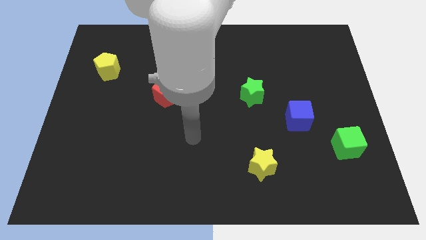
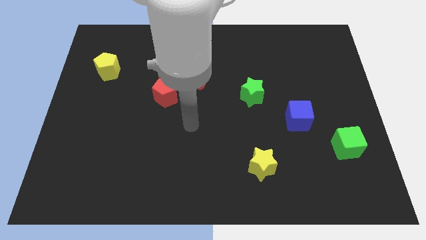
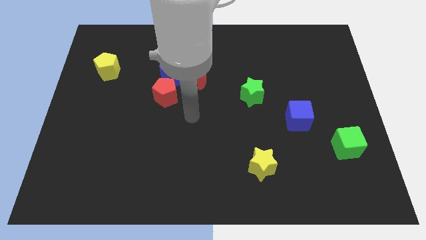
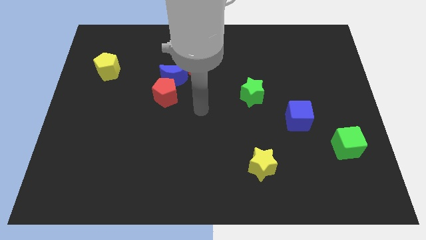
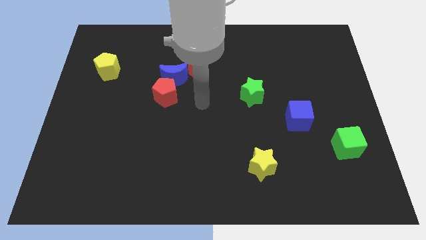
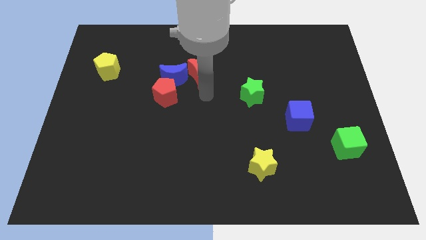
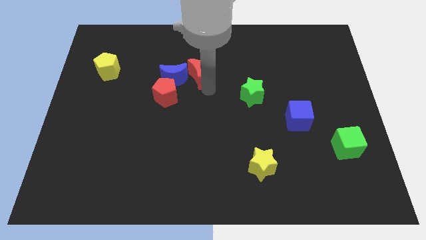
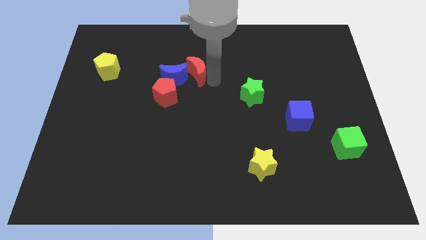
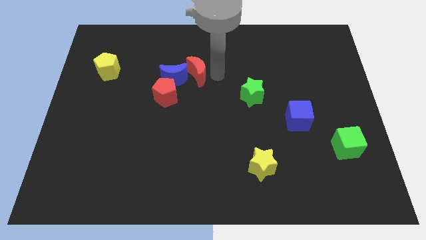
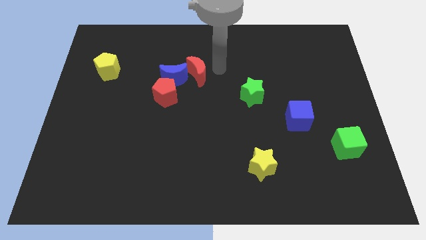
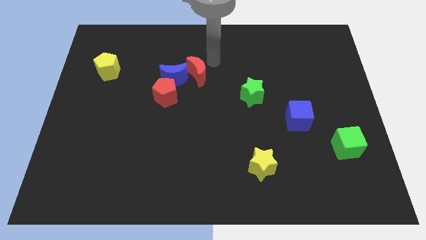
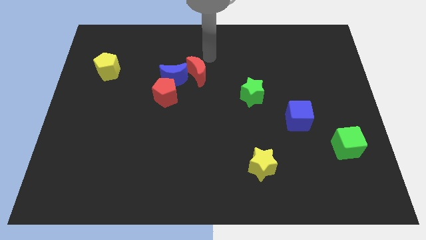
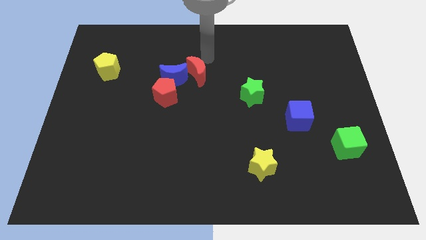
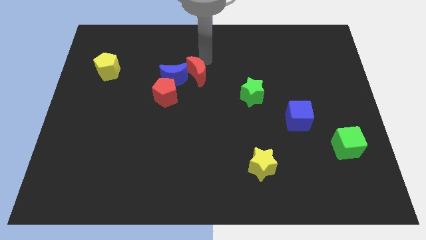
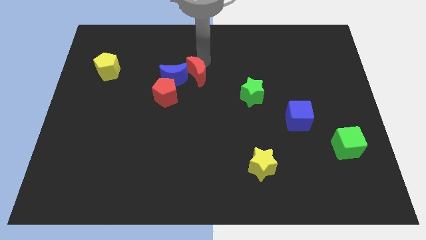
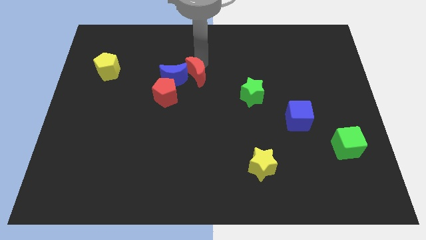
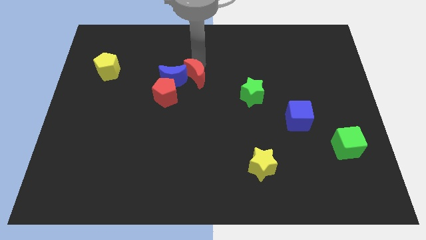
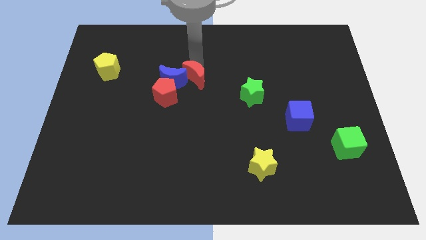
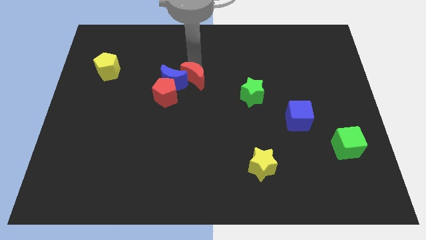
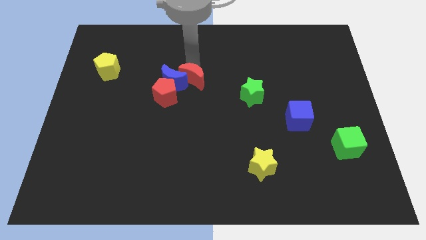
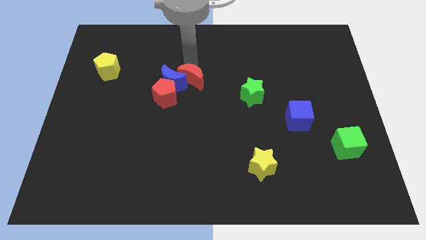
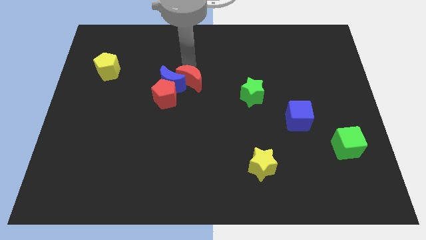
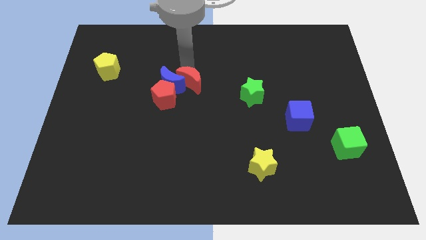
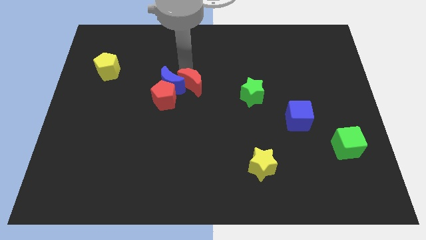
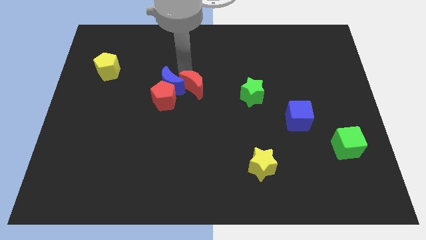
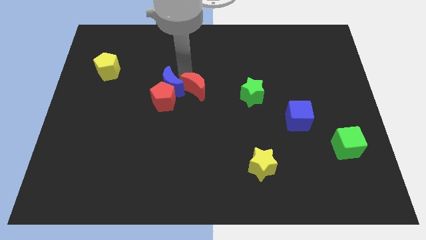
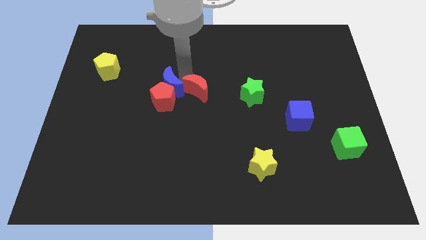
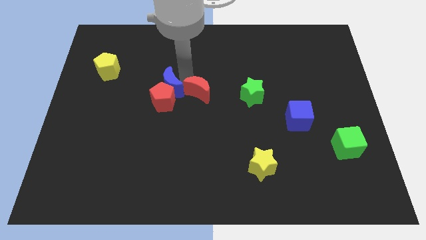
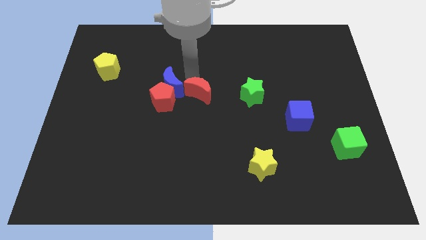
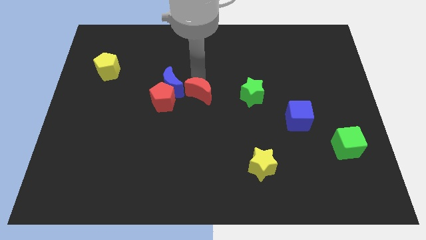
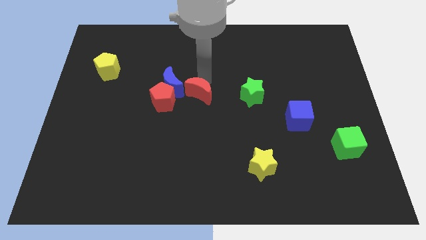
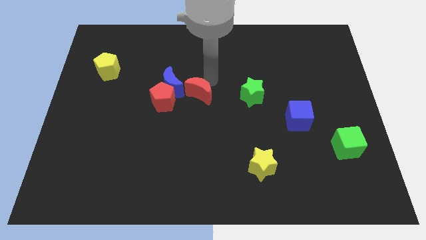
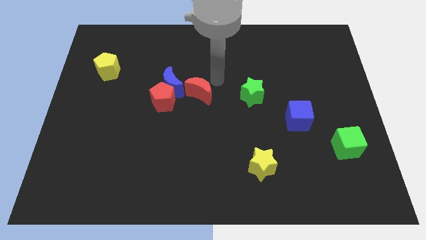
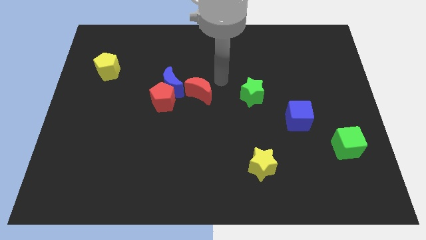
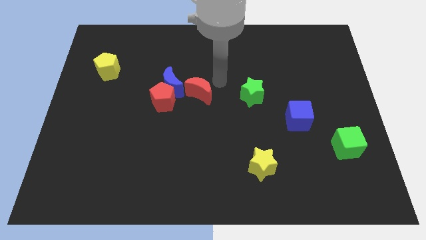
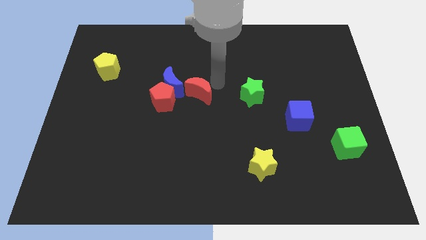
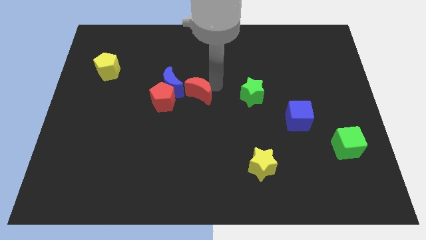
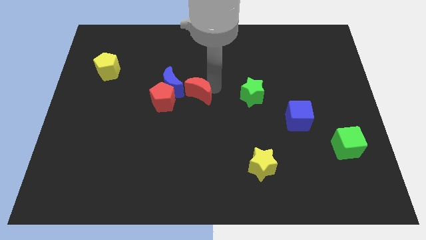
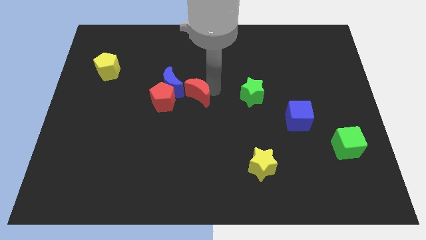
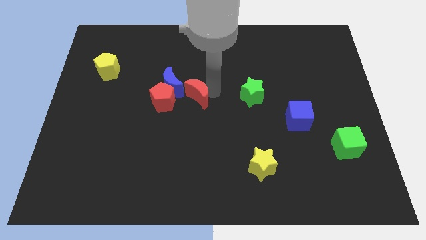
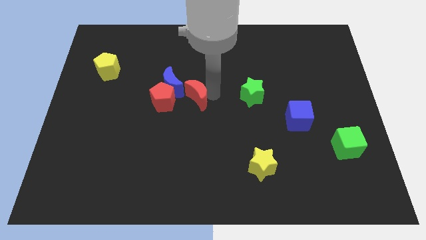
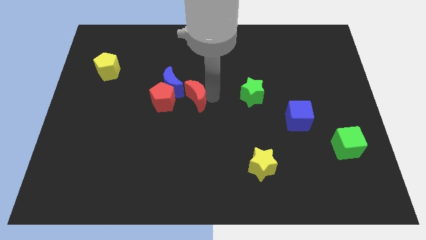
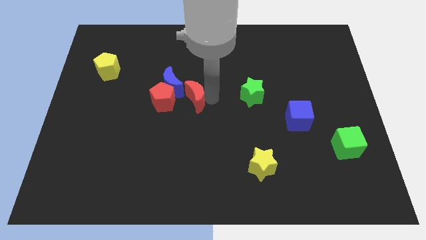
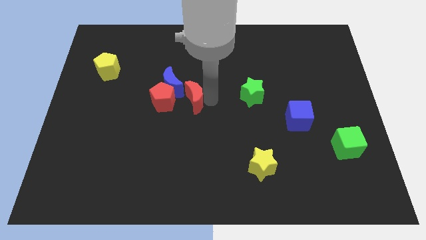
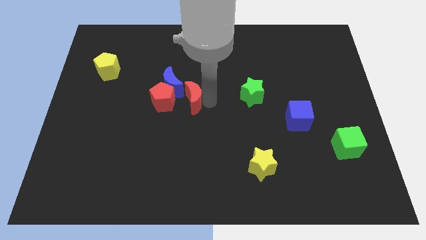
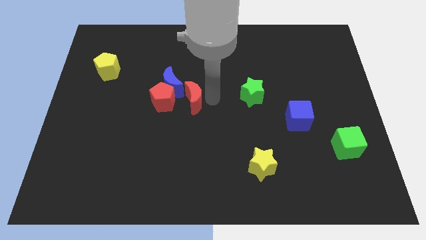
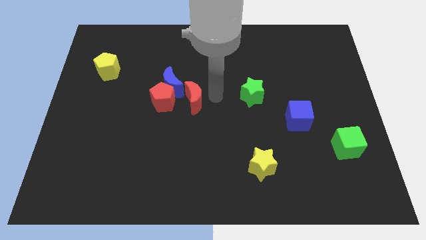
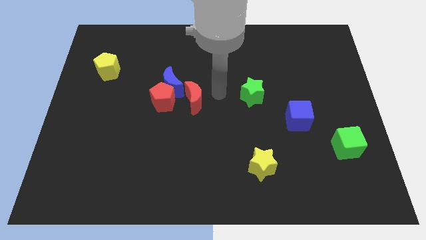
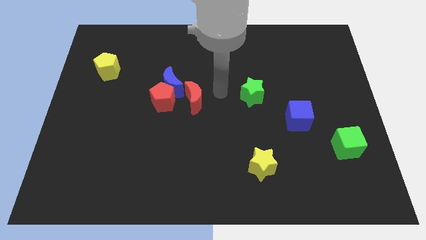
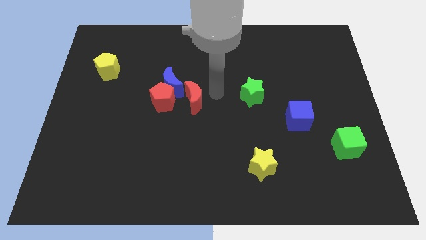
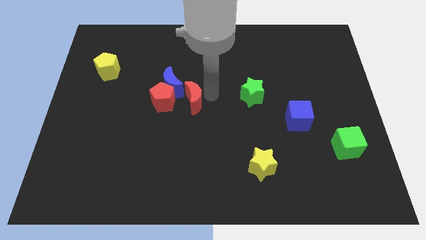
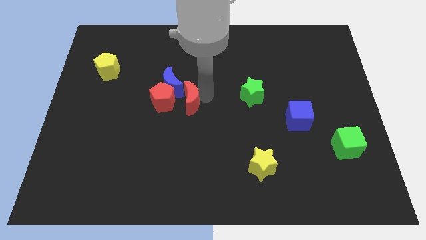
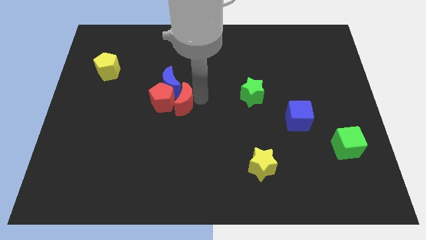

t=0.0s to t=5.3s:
slightly push the red moon diagonally downwards and left

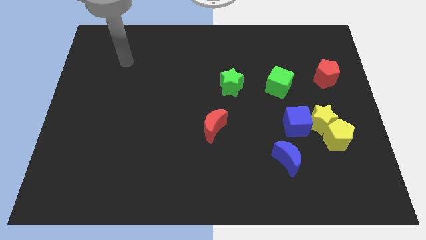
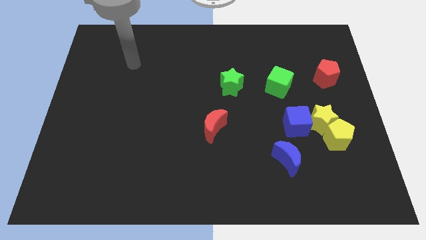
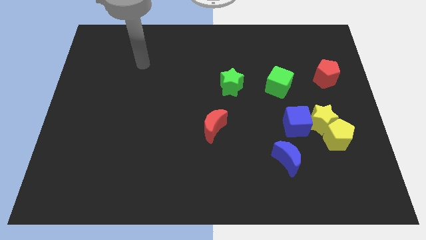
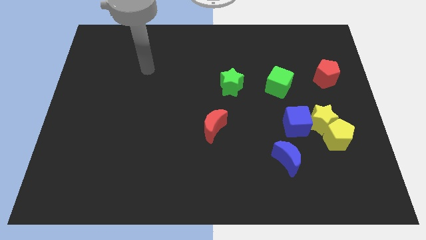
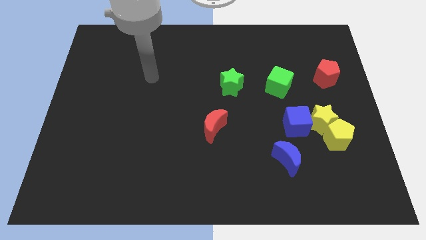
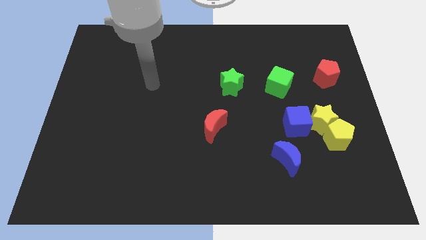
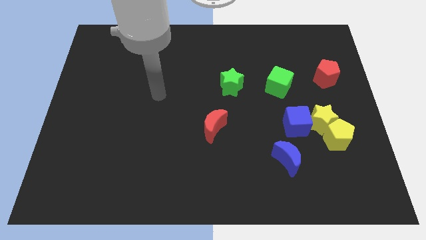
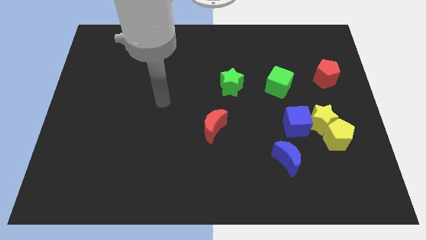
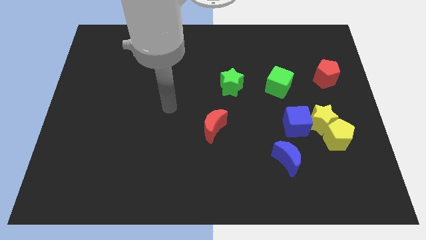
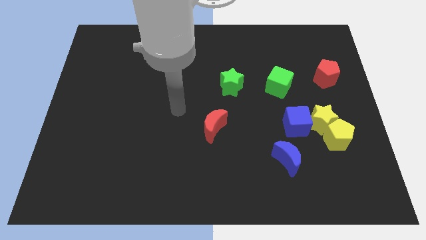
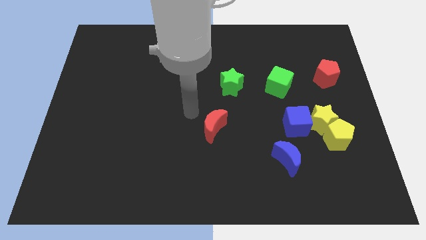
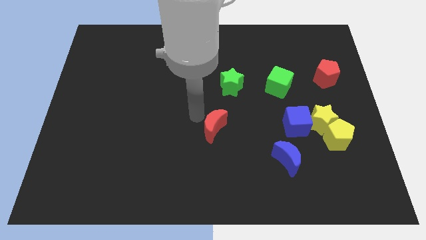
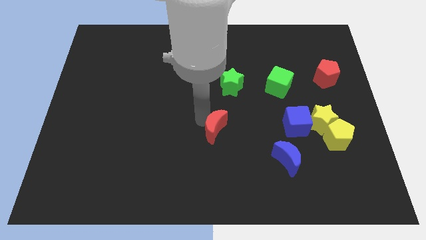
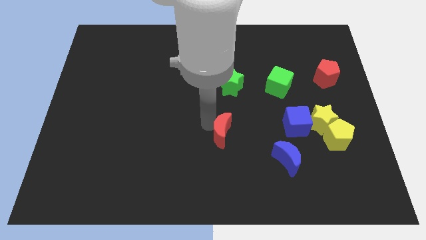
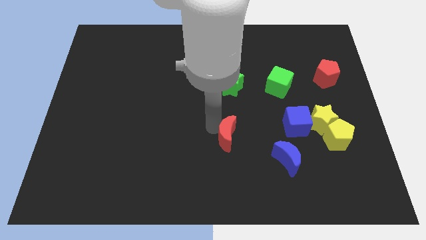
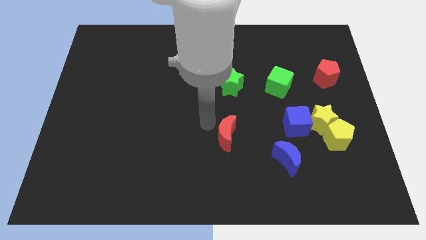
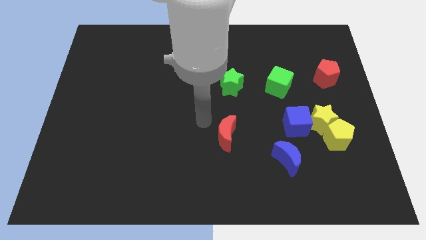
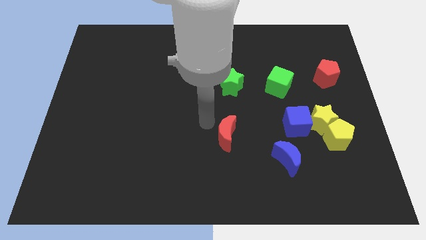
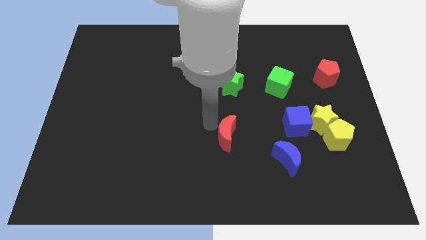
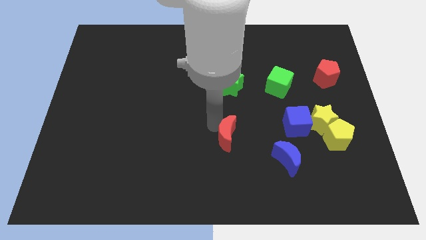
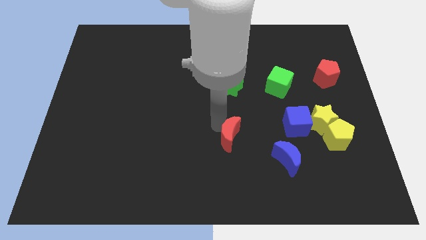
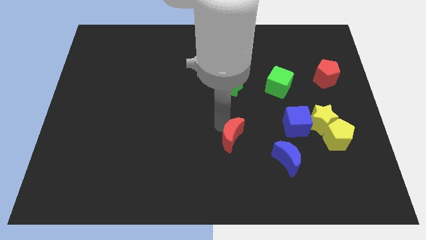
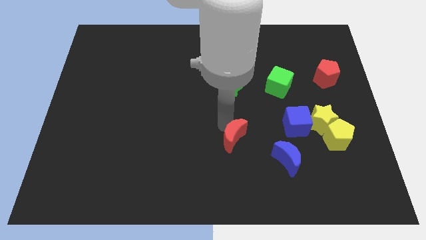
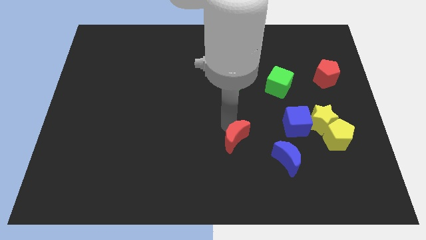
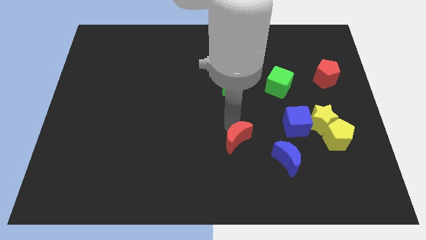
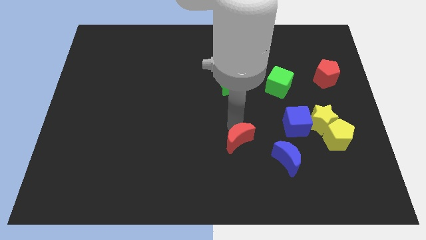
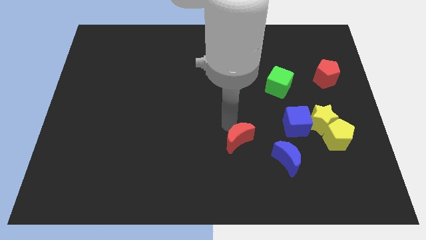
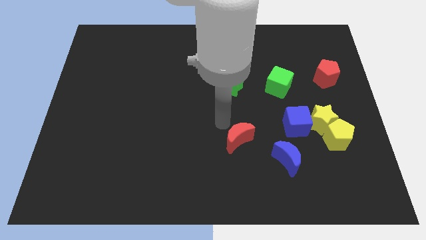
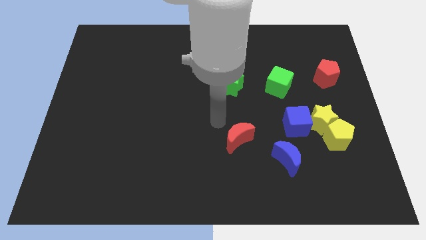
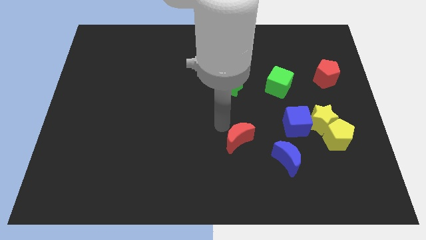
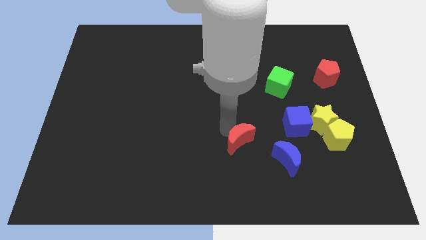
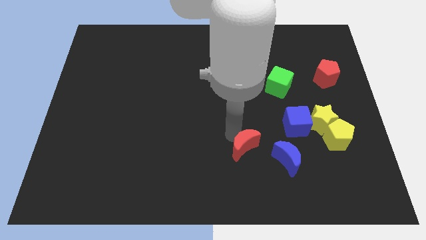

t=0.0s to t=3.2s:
slightly move the red moon downwards and then to the right
